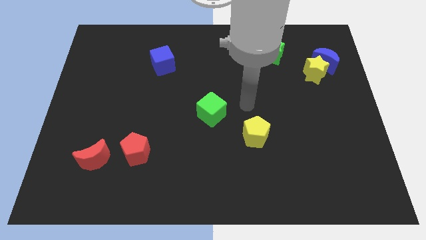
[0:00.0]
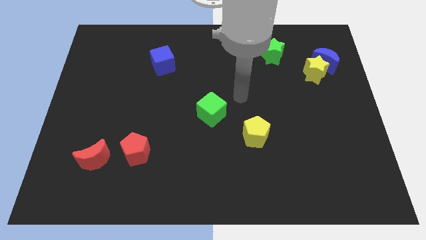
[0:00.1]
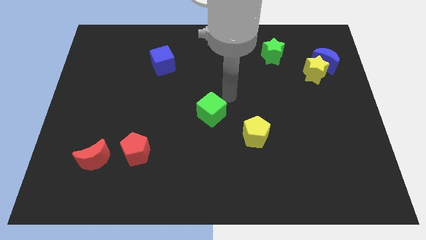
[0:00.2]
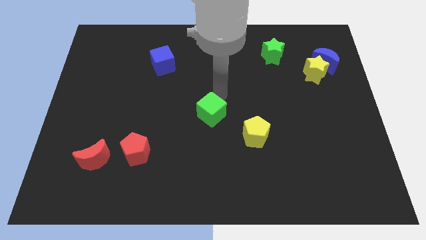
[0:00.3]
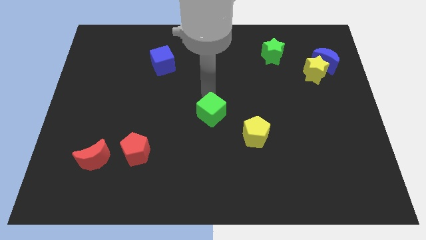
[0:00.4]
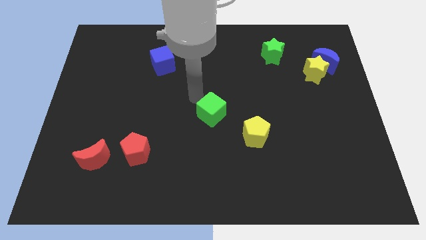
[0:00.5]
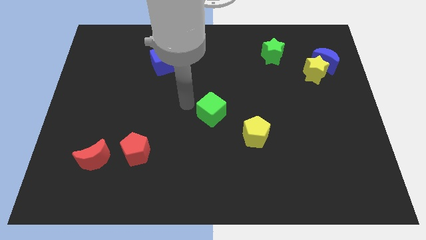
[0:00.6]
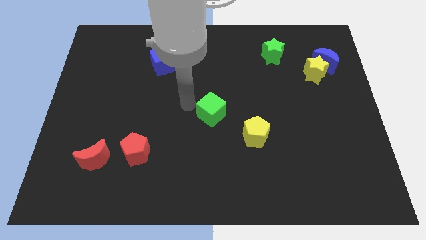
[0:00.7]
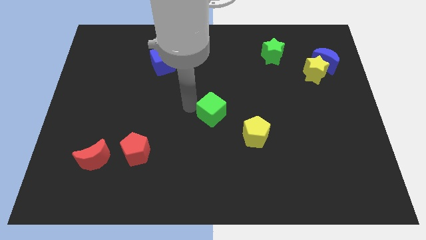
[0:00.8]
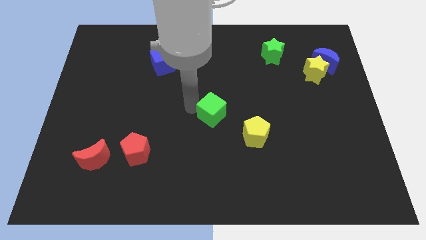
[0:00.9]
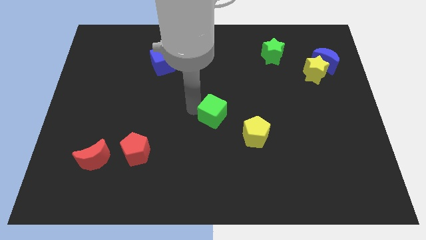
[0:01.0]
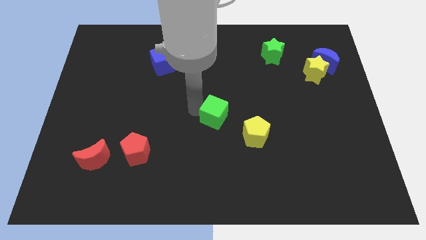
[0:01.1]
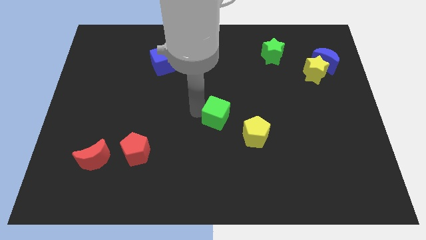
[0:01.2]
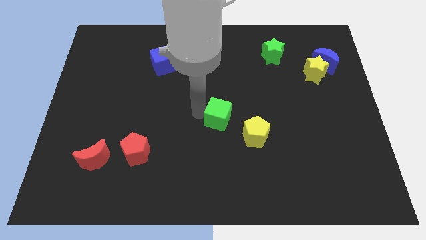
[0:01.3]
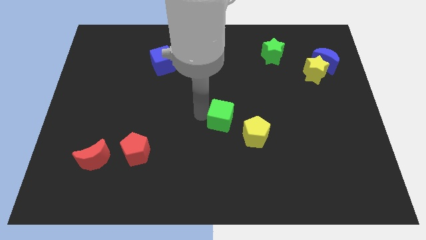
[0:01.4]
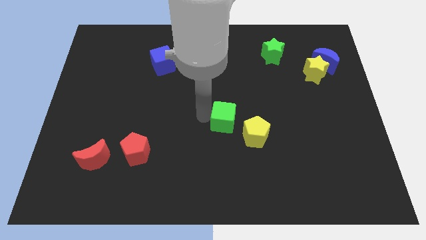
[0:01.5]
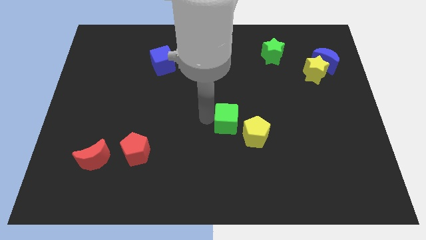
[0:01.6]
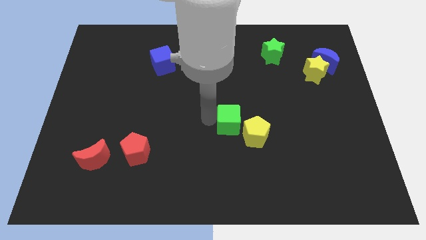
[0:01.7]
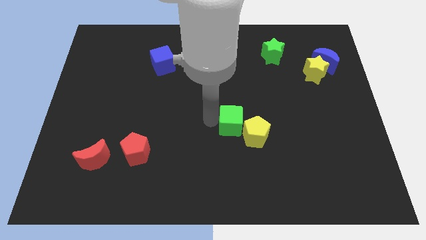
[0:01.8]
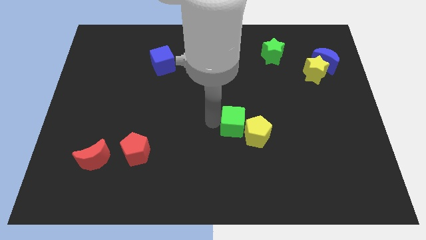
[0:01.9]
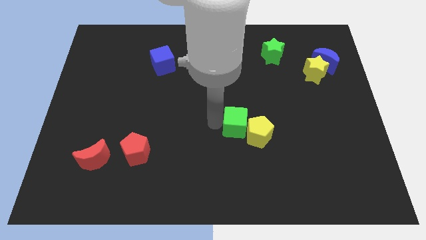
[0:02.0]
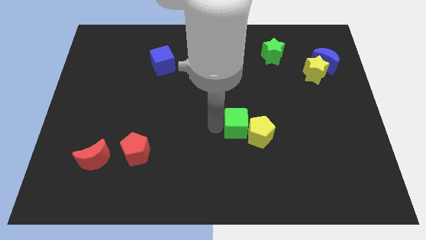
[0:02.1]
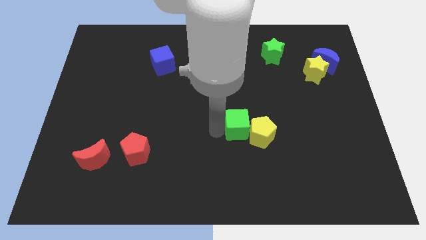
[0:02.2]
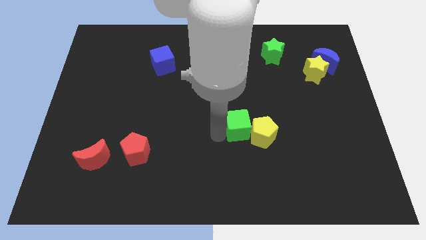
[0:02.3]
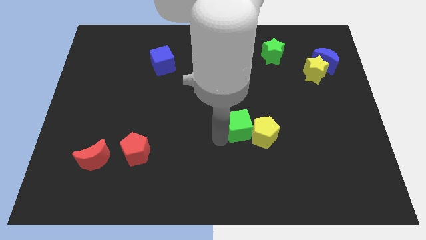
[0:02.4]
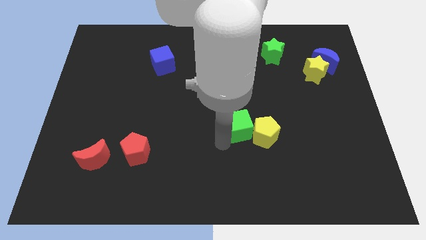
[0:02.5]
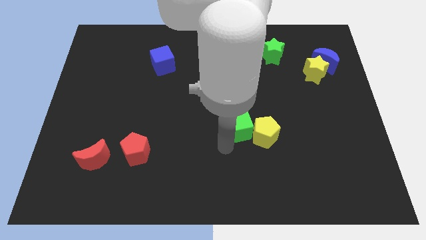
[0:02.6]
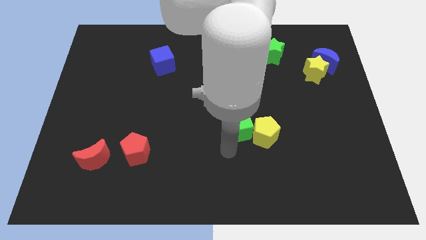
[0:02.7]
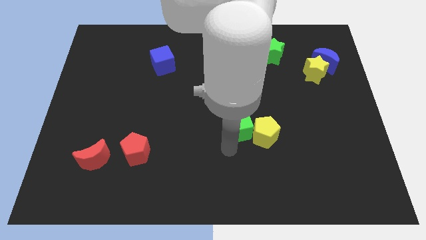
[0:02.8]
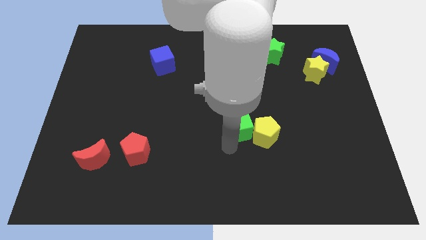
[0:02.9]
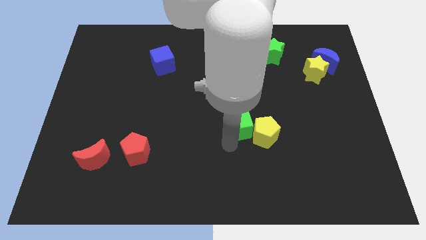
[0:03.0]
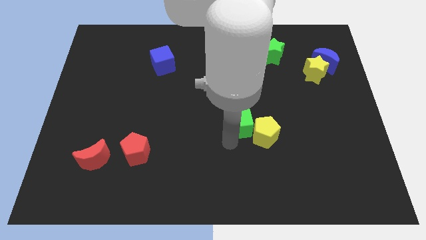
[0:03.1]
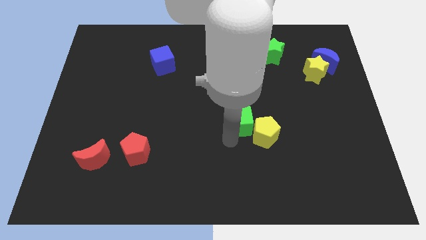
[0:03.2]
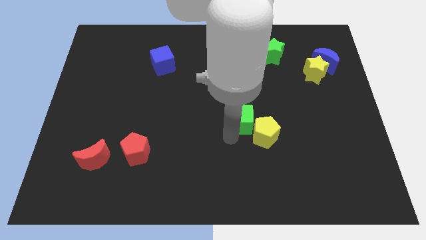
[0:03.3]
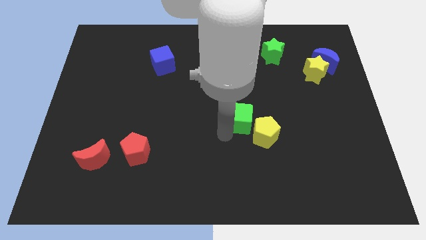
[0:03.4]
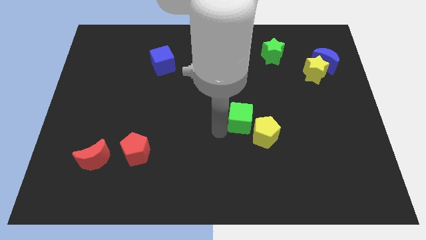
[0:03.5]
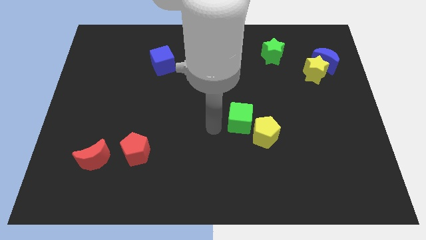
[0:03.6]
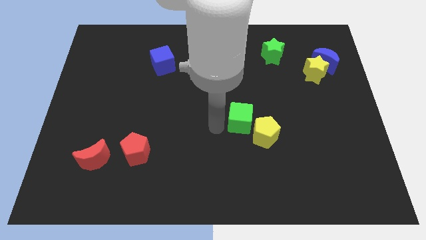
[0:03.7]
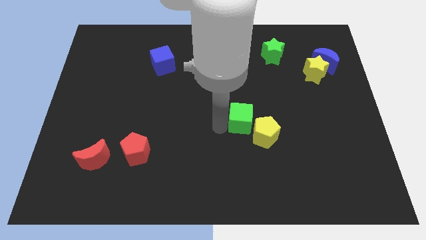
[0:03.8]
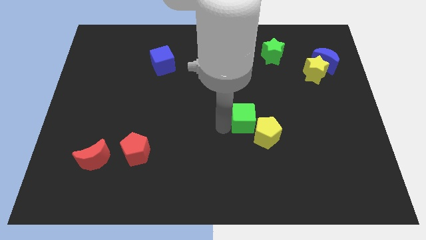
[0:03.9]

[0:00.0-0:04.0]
push the green cube to the right a little

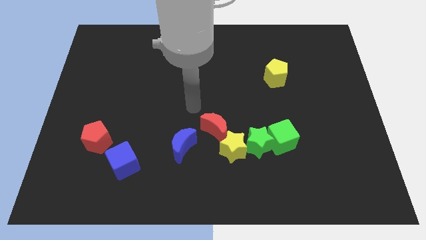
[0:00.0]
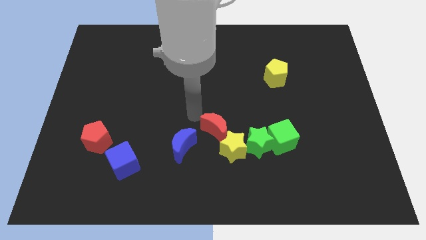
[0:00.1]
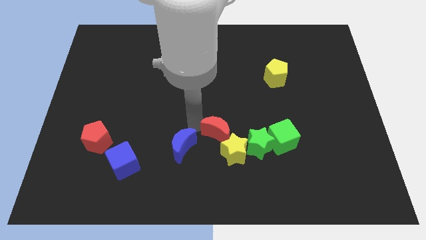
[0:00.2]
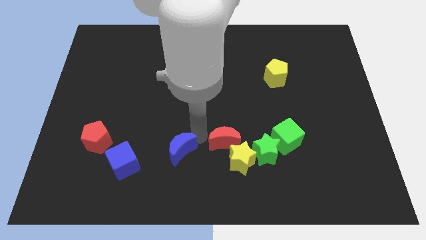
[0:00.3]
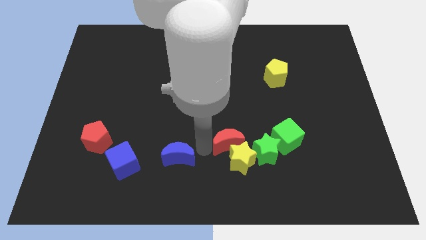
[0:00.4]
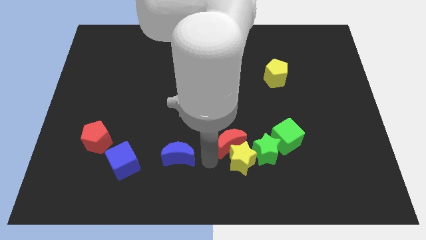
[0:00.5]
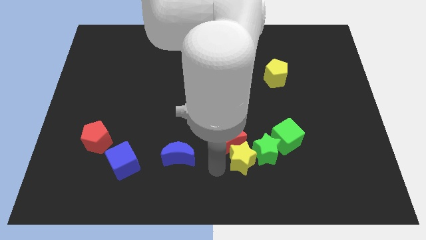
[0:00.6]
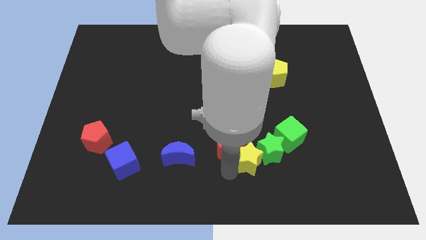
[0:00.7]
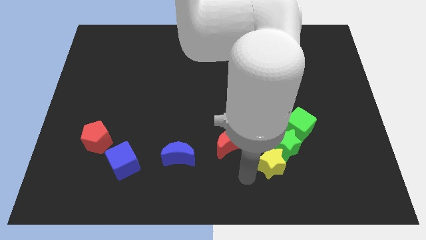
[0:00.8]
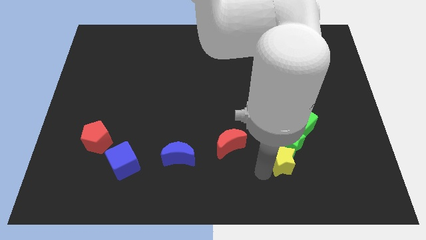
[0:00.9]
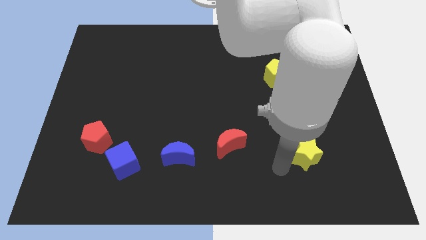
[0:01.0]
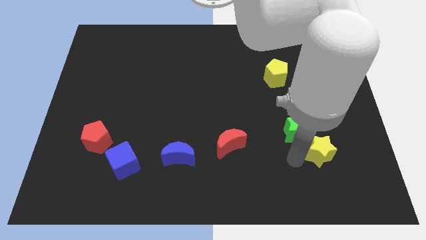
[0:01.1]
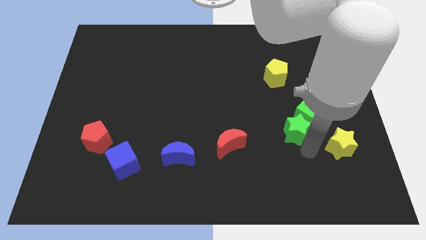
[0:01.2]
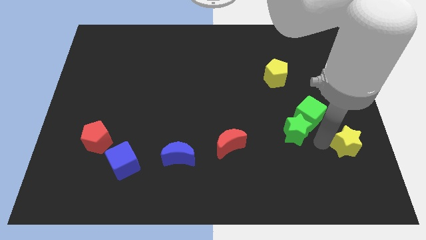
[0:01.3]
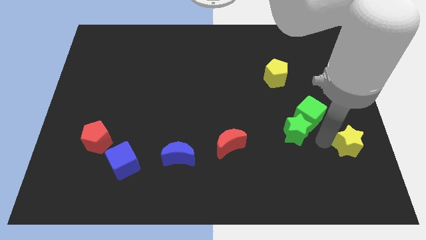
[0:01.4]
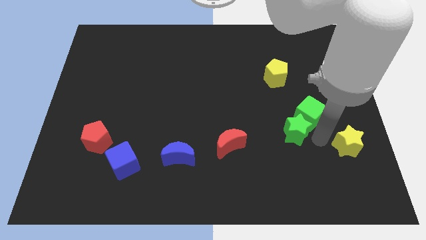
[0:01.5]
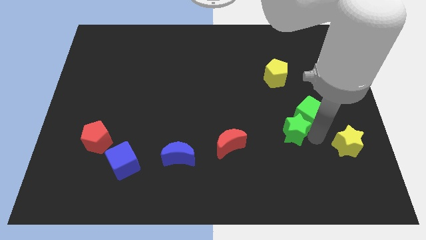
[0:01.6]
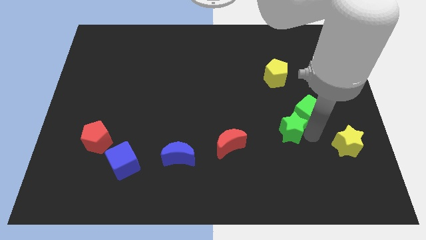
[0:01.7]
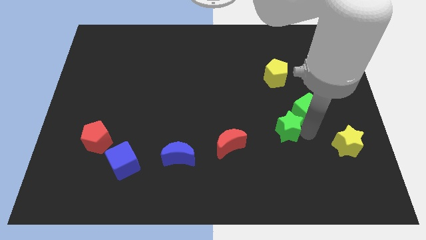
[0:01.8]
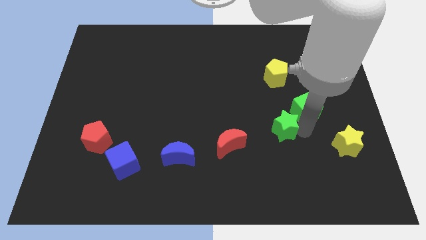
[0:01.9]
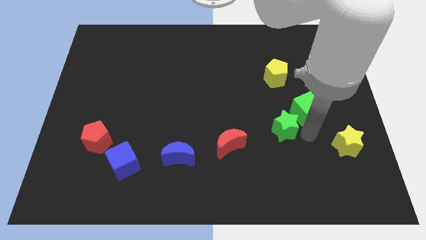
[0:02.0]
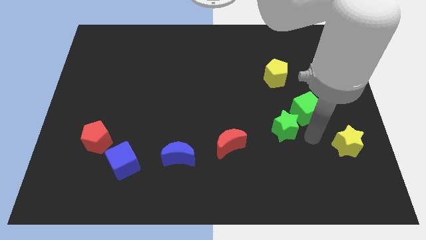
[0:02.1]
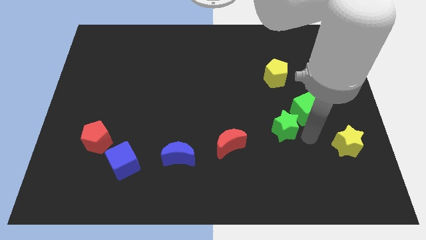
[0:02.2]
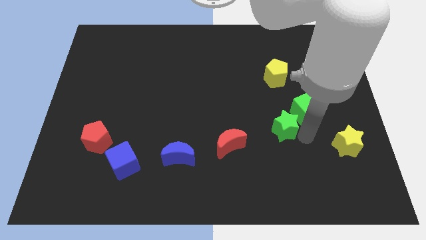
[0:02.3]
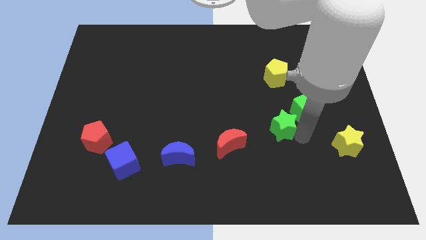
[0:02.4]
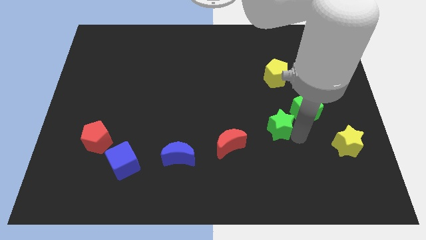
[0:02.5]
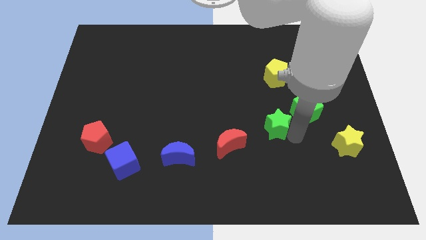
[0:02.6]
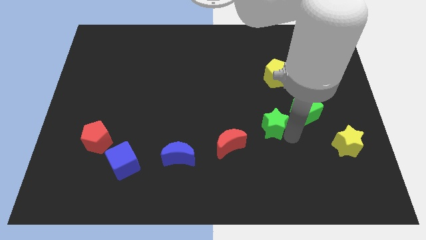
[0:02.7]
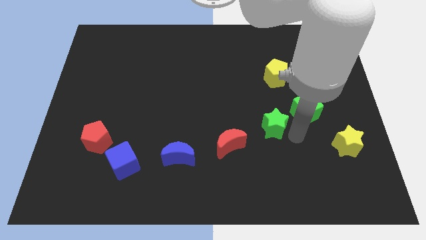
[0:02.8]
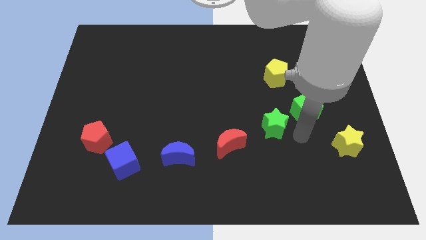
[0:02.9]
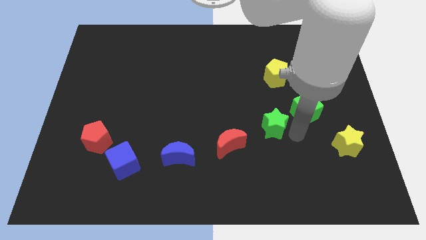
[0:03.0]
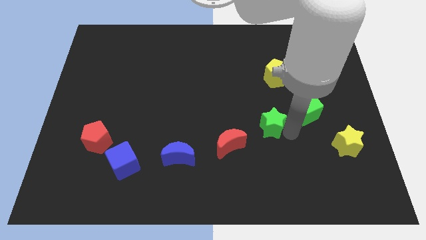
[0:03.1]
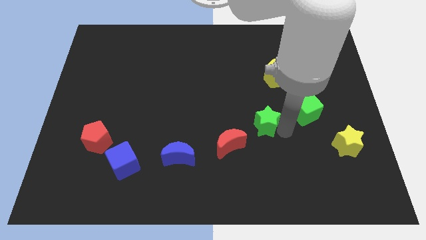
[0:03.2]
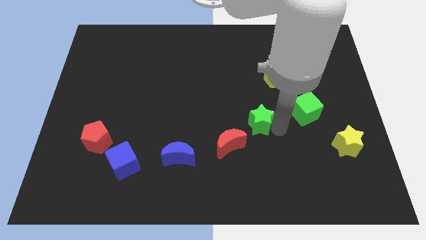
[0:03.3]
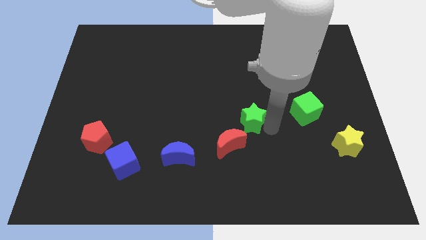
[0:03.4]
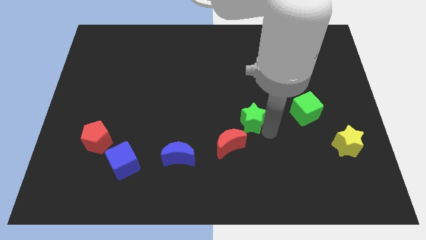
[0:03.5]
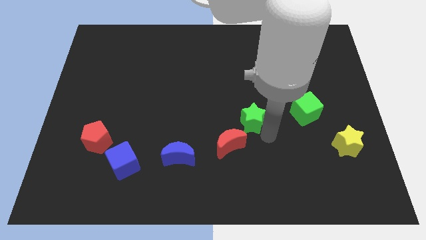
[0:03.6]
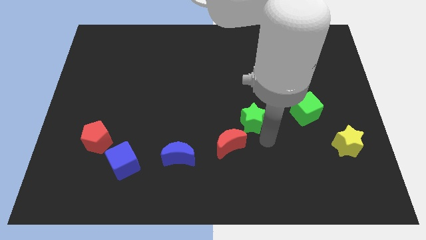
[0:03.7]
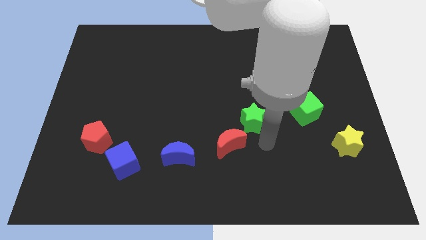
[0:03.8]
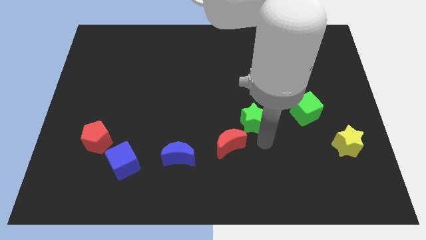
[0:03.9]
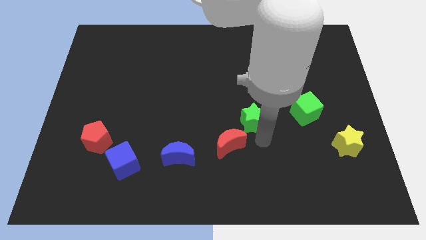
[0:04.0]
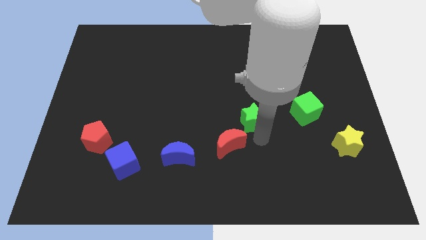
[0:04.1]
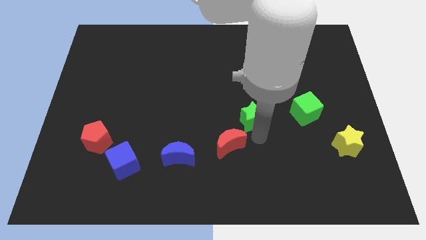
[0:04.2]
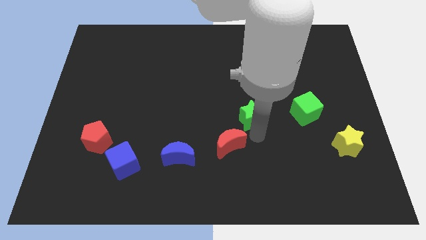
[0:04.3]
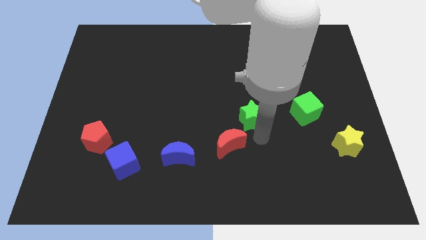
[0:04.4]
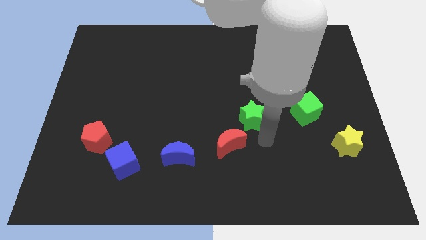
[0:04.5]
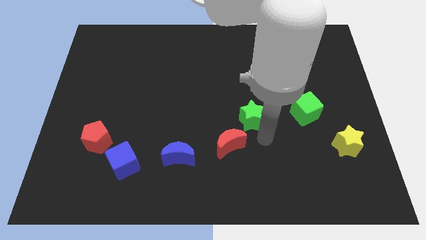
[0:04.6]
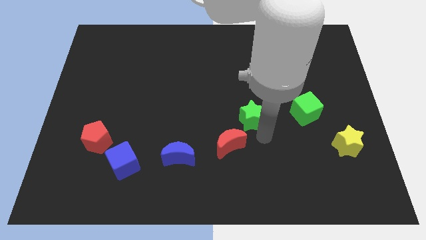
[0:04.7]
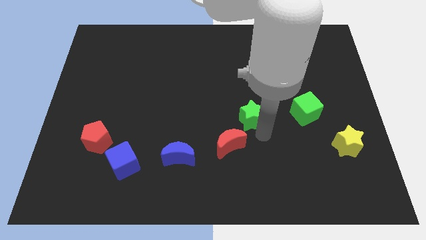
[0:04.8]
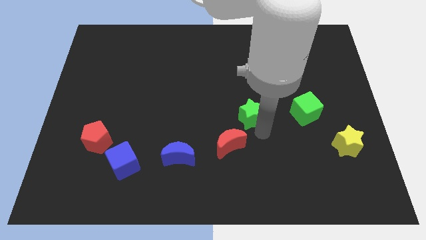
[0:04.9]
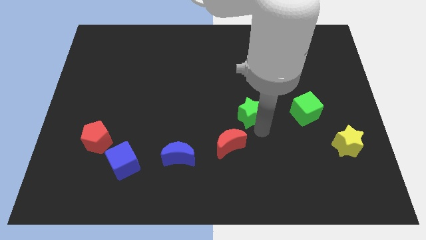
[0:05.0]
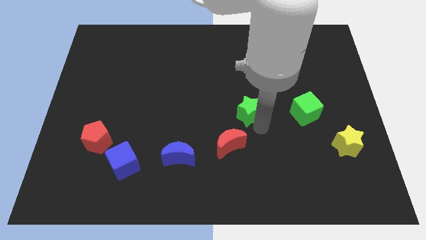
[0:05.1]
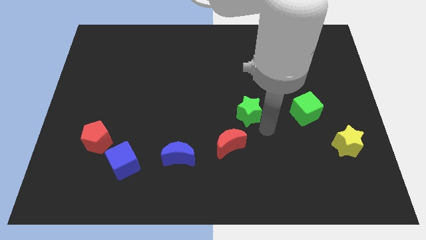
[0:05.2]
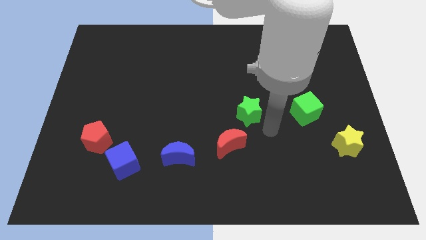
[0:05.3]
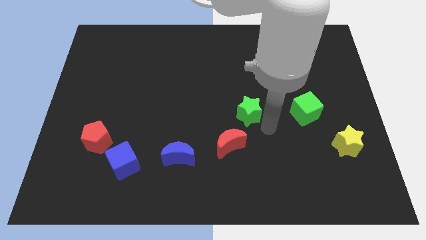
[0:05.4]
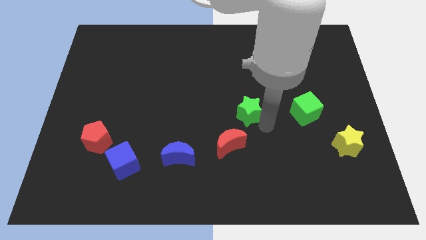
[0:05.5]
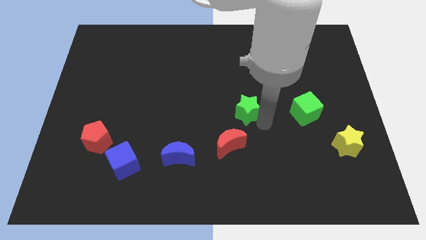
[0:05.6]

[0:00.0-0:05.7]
slightly slide the green star diagonally upwards and left
